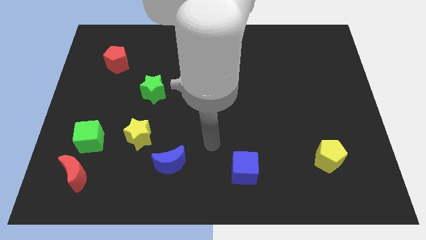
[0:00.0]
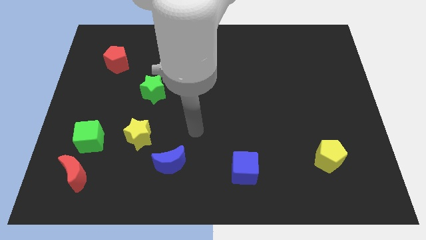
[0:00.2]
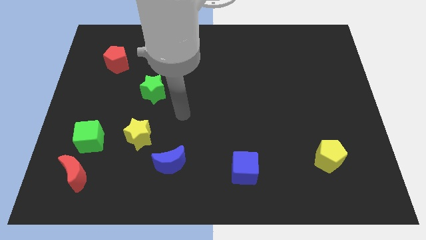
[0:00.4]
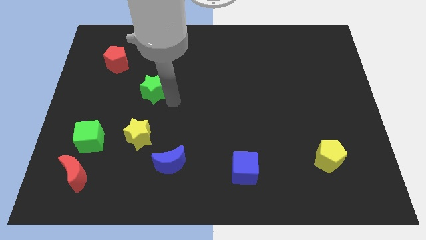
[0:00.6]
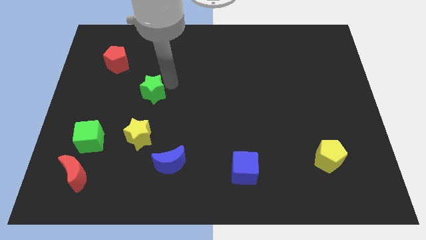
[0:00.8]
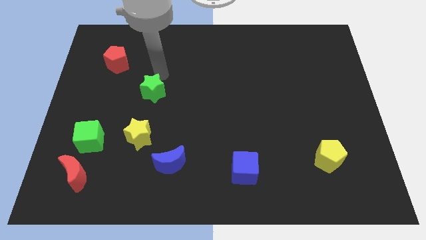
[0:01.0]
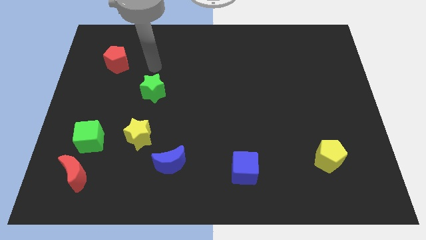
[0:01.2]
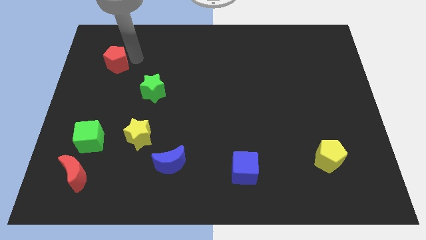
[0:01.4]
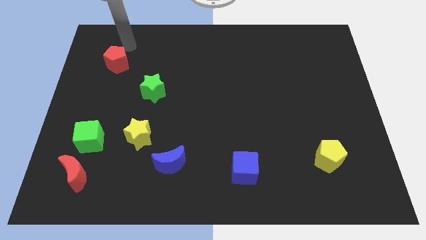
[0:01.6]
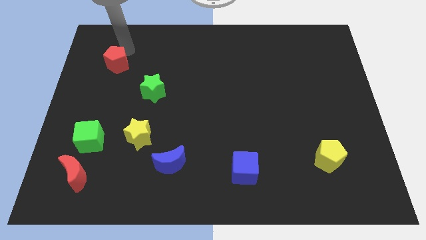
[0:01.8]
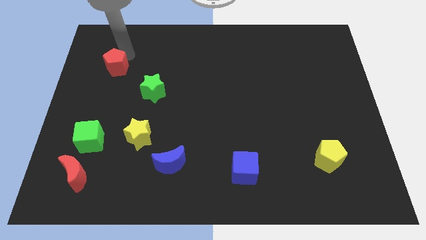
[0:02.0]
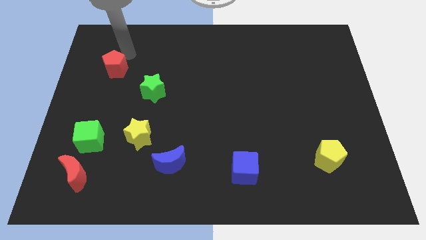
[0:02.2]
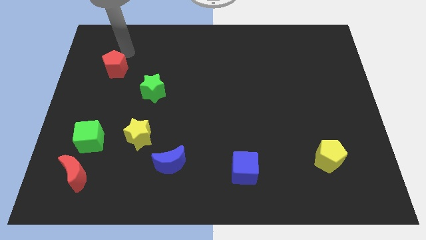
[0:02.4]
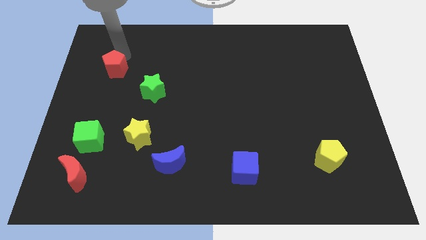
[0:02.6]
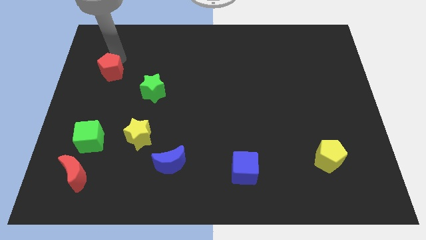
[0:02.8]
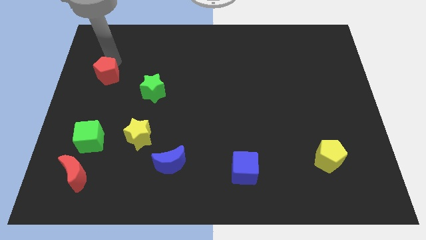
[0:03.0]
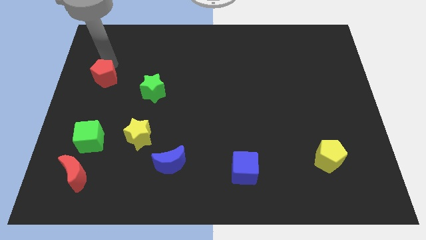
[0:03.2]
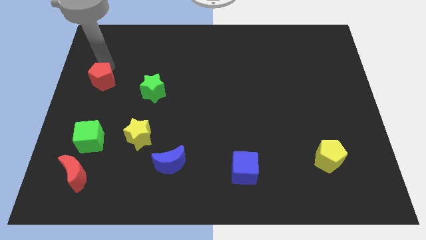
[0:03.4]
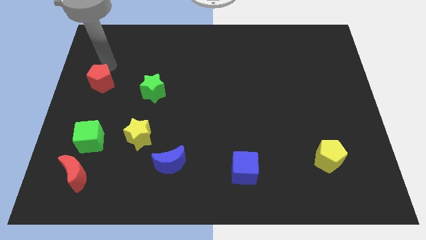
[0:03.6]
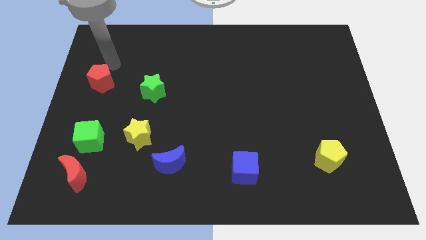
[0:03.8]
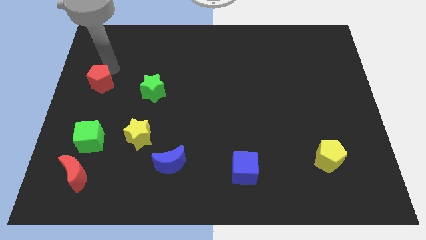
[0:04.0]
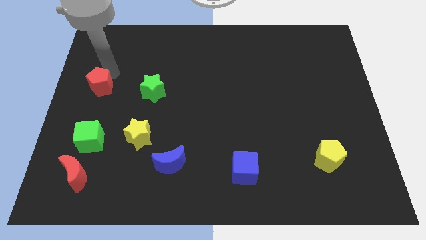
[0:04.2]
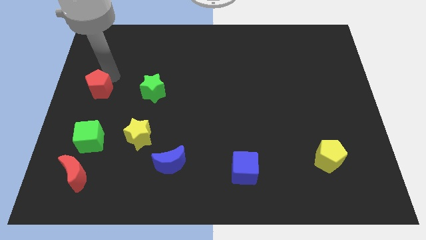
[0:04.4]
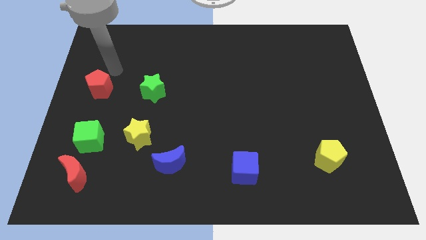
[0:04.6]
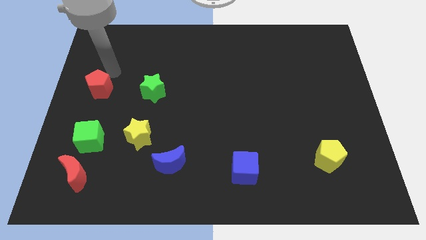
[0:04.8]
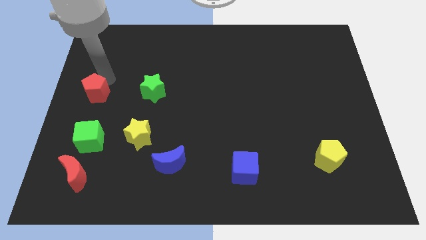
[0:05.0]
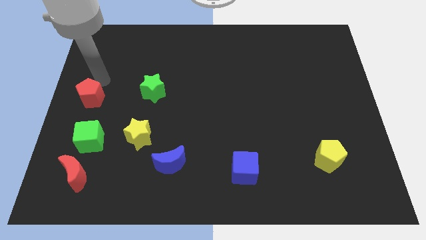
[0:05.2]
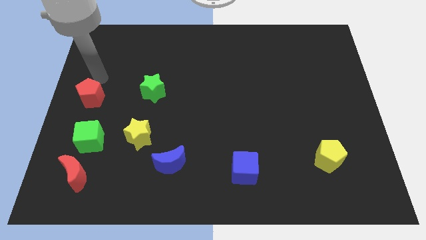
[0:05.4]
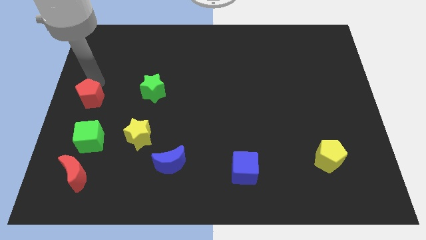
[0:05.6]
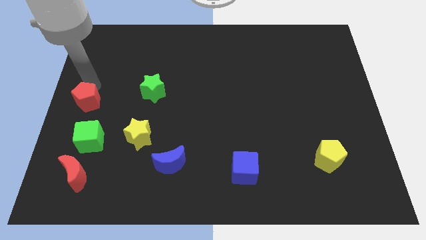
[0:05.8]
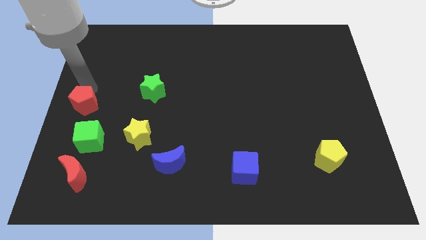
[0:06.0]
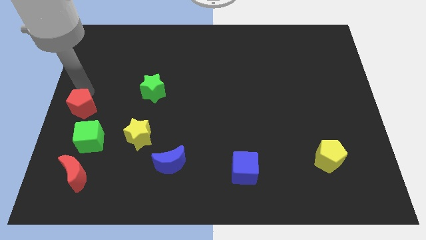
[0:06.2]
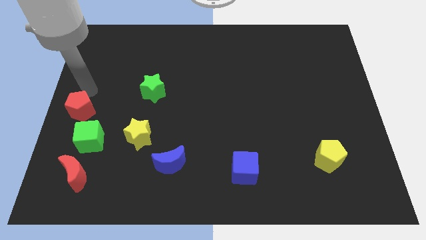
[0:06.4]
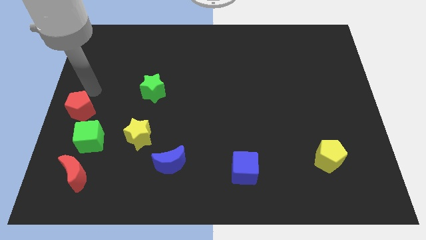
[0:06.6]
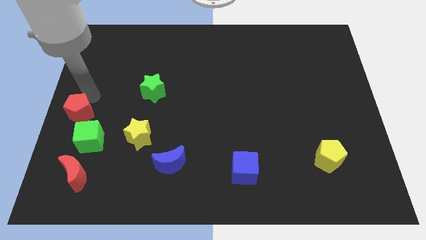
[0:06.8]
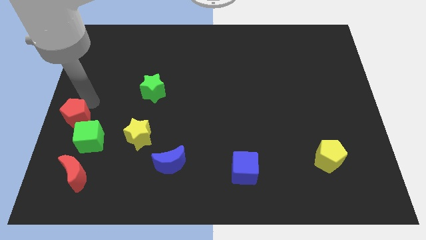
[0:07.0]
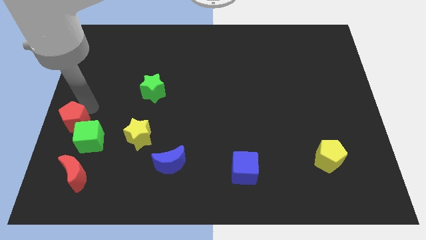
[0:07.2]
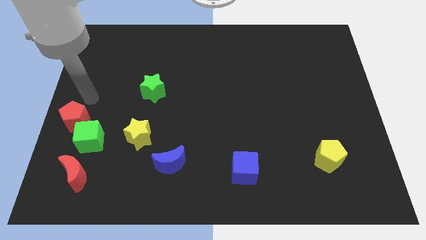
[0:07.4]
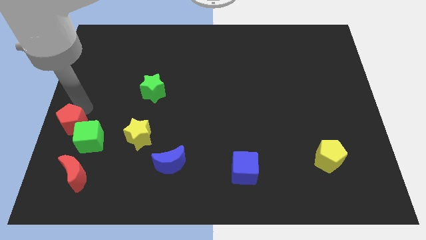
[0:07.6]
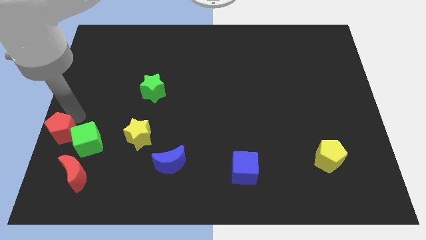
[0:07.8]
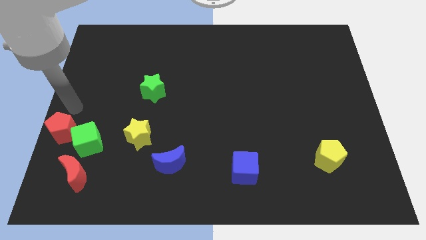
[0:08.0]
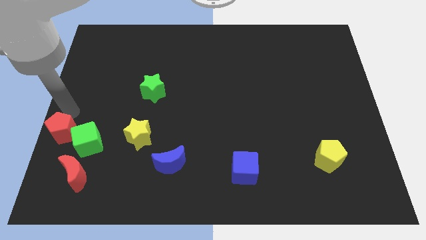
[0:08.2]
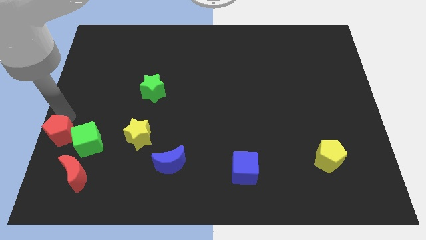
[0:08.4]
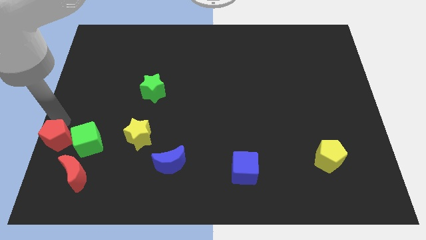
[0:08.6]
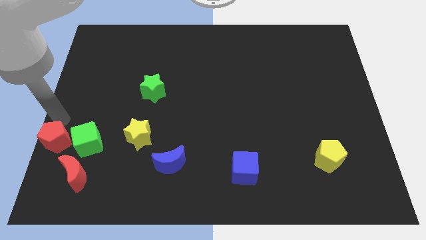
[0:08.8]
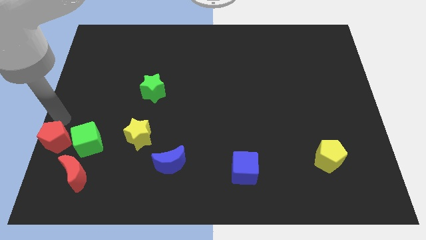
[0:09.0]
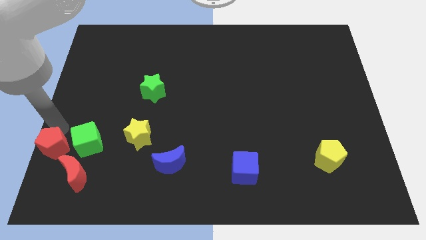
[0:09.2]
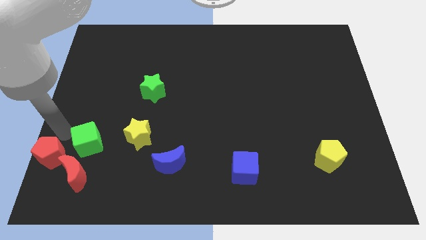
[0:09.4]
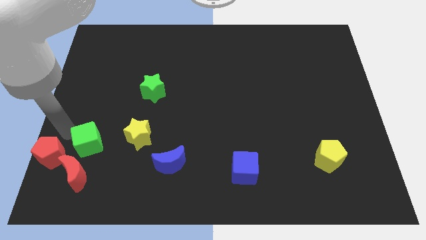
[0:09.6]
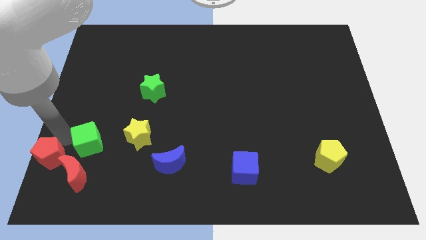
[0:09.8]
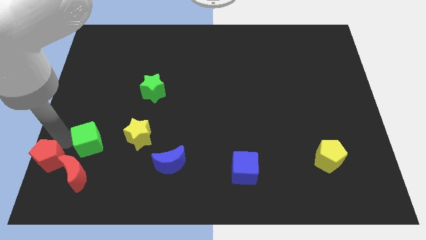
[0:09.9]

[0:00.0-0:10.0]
move the red pentagon to the bottom left of the board

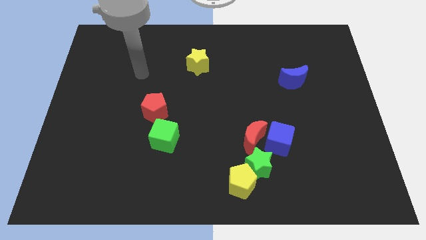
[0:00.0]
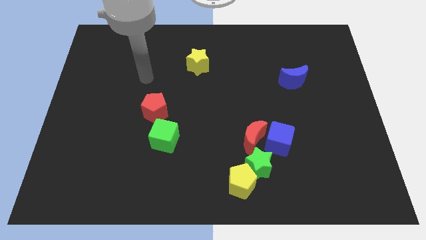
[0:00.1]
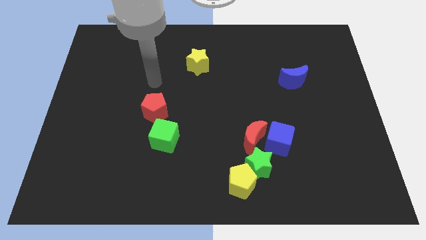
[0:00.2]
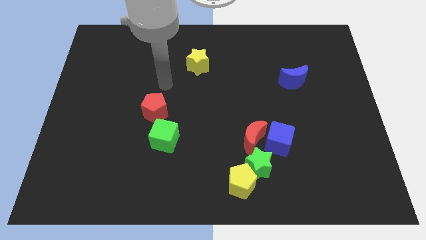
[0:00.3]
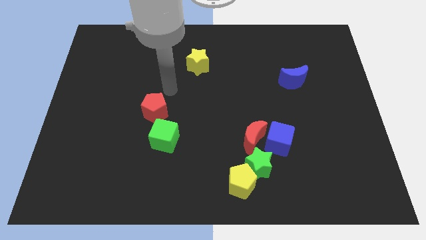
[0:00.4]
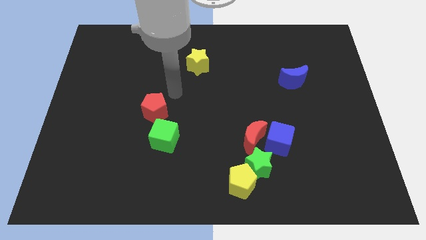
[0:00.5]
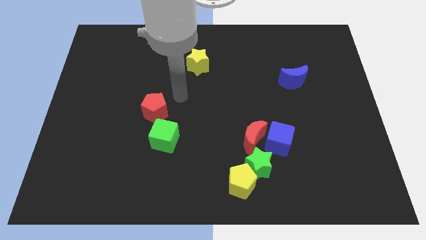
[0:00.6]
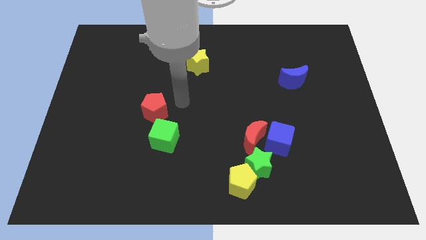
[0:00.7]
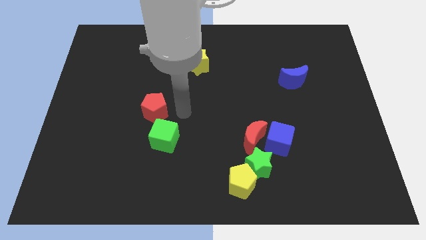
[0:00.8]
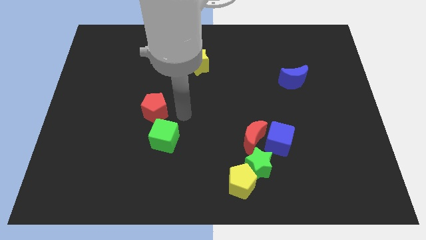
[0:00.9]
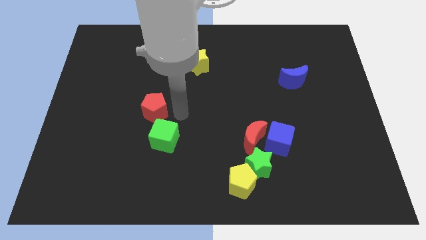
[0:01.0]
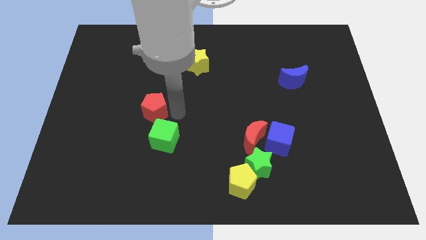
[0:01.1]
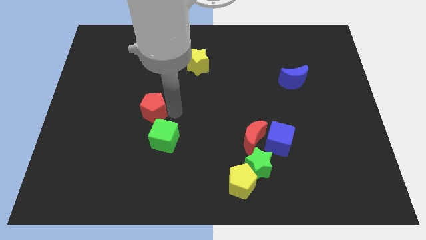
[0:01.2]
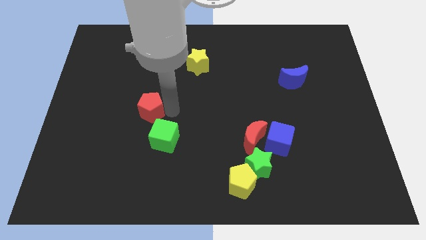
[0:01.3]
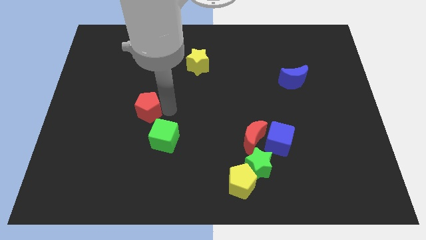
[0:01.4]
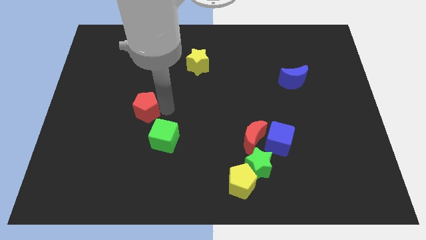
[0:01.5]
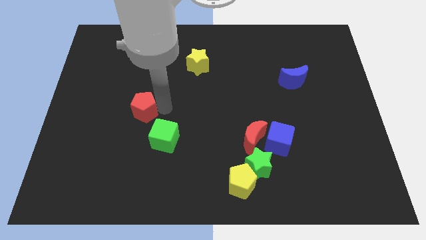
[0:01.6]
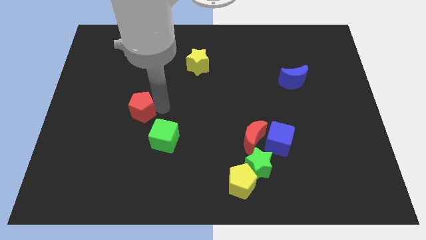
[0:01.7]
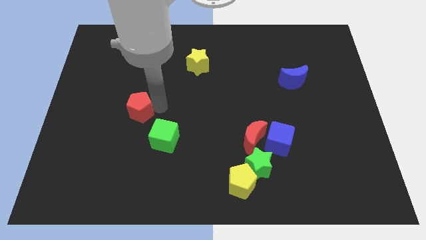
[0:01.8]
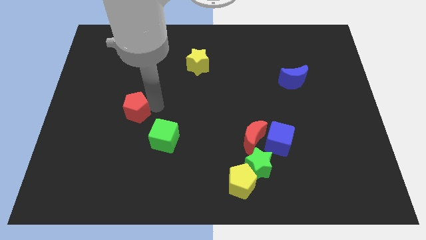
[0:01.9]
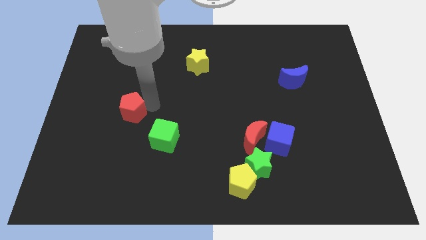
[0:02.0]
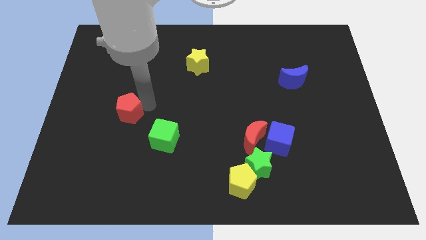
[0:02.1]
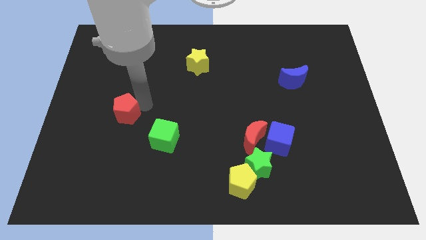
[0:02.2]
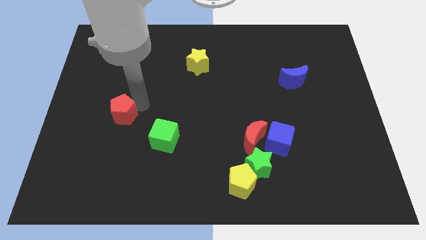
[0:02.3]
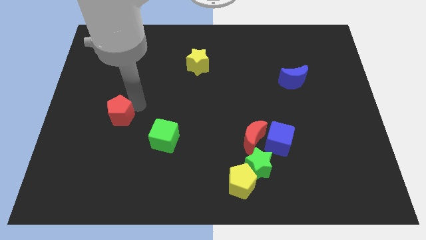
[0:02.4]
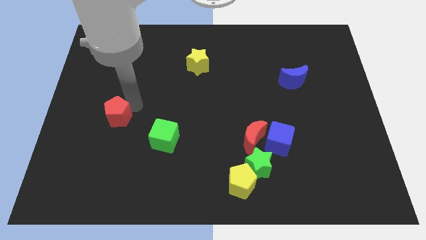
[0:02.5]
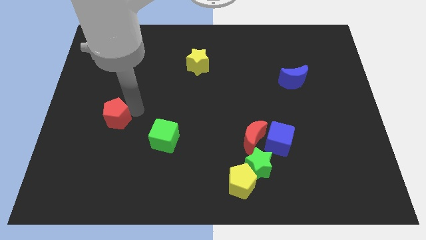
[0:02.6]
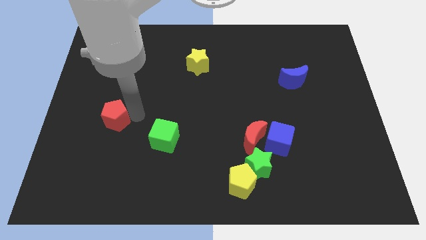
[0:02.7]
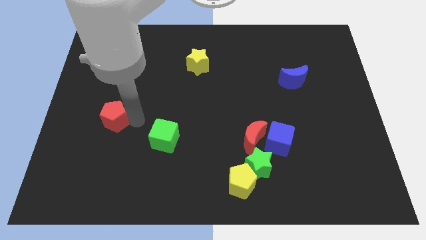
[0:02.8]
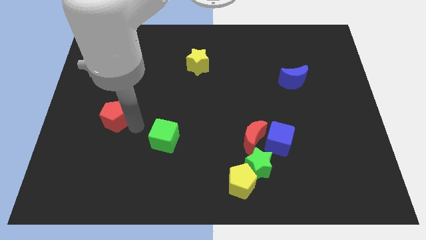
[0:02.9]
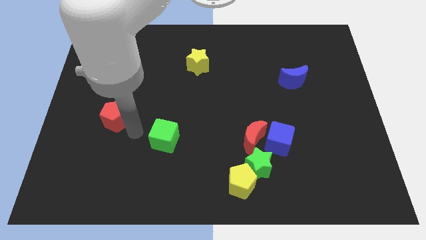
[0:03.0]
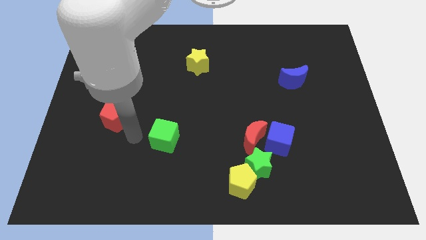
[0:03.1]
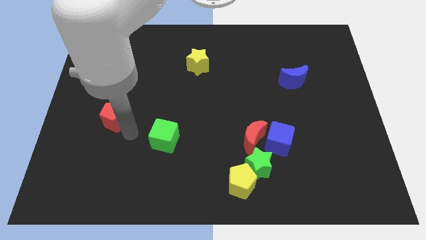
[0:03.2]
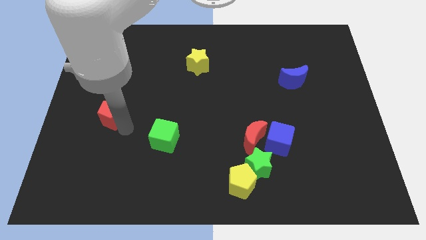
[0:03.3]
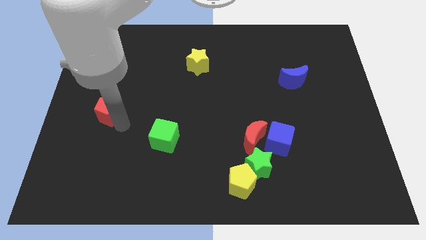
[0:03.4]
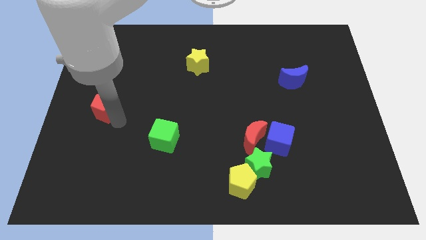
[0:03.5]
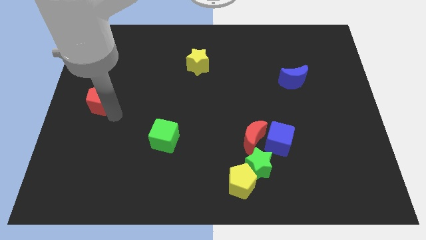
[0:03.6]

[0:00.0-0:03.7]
put the red pentagon to the center left
